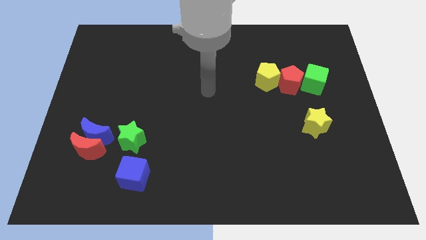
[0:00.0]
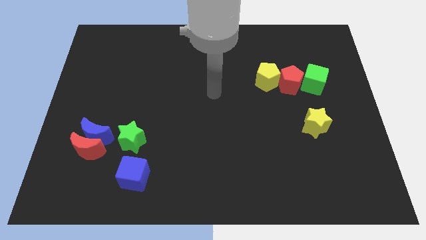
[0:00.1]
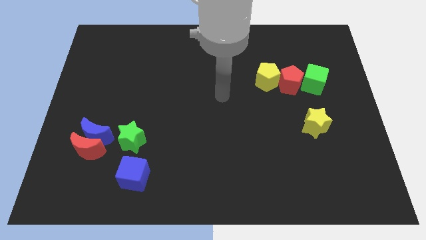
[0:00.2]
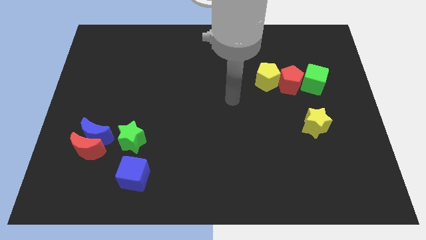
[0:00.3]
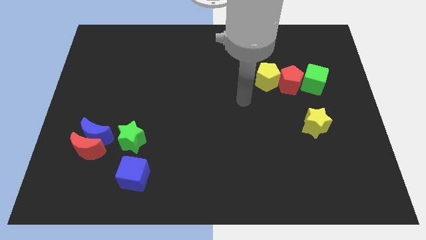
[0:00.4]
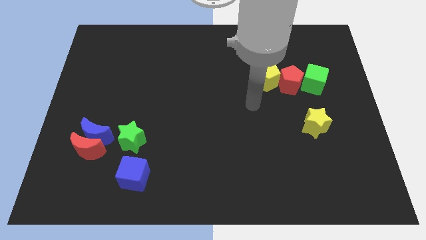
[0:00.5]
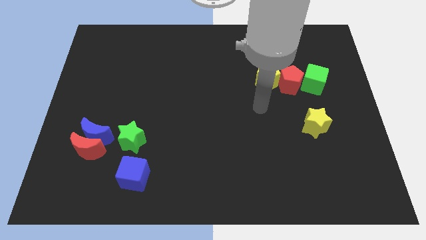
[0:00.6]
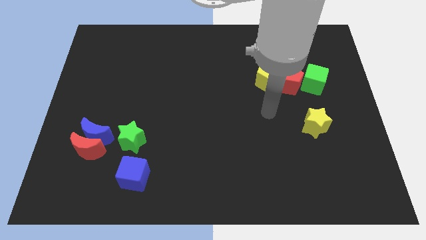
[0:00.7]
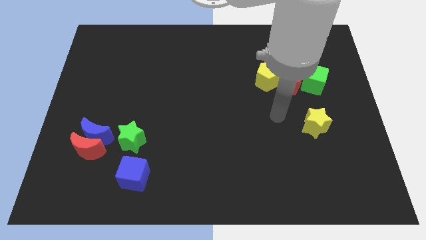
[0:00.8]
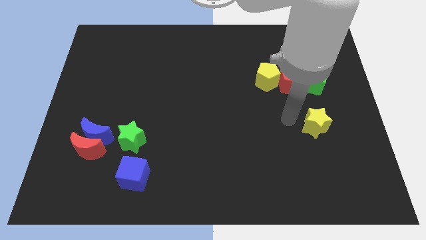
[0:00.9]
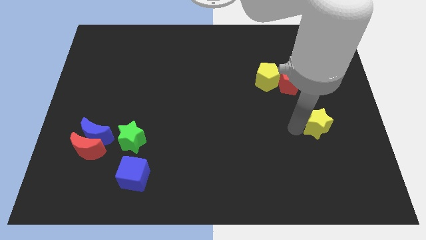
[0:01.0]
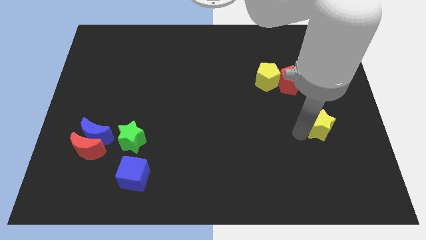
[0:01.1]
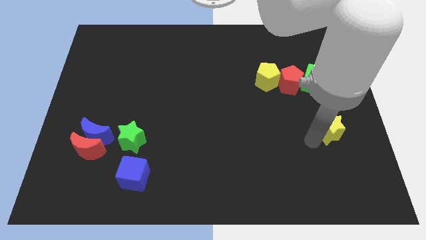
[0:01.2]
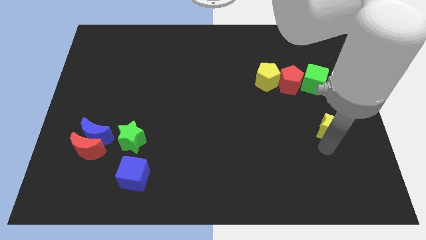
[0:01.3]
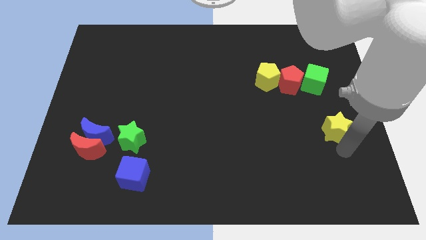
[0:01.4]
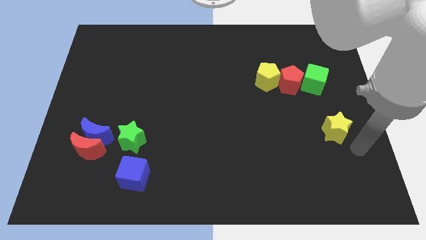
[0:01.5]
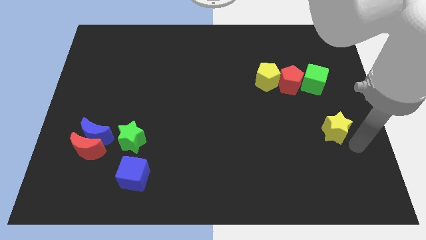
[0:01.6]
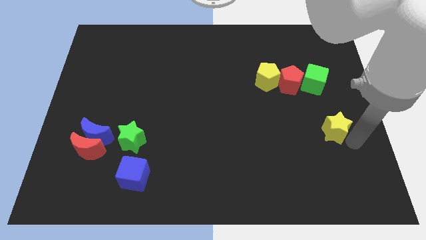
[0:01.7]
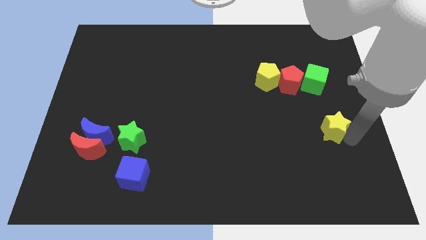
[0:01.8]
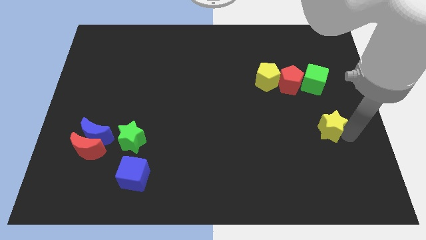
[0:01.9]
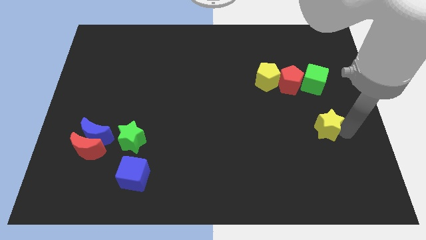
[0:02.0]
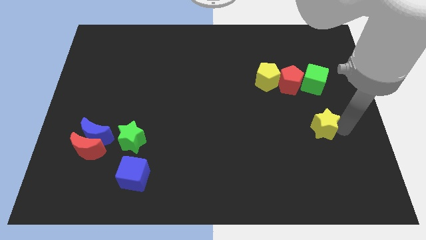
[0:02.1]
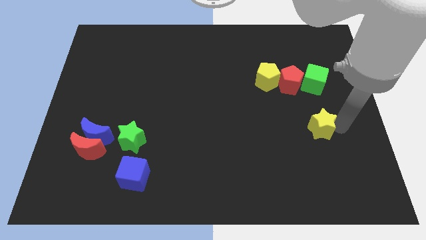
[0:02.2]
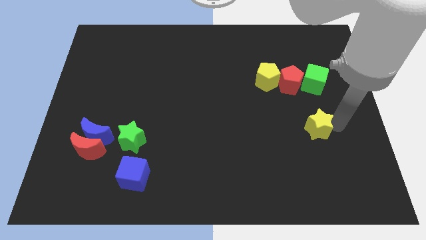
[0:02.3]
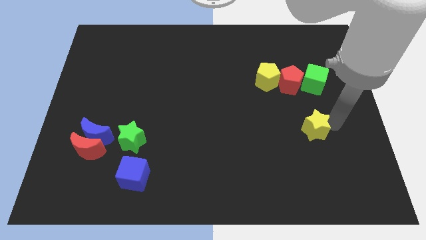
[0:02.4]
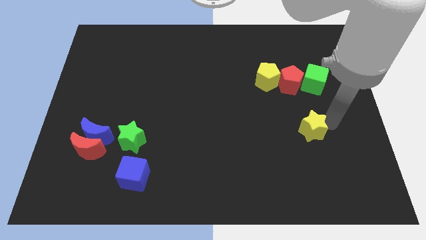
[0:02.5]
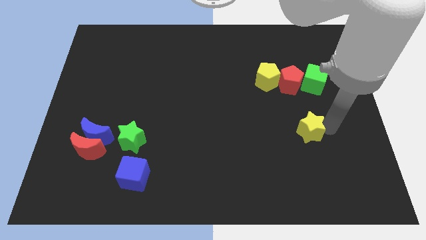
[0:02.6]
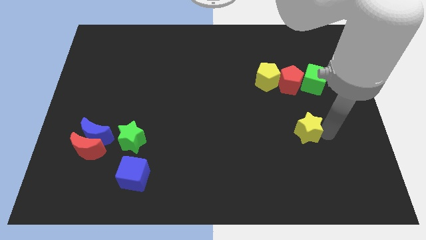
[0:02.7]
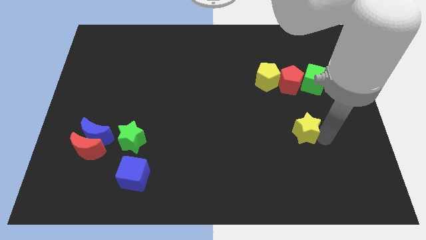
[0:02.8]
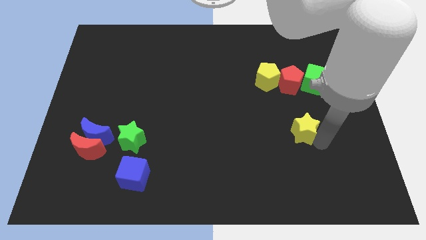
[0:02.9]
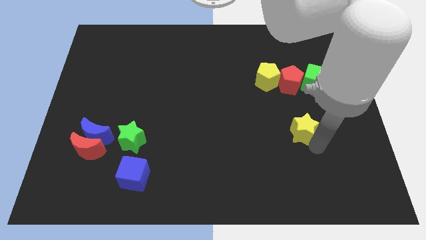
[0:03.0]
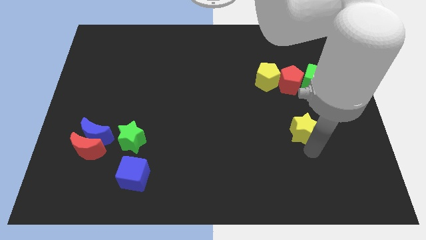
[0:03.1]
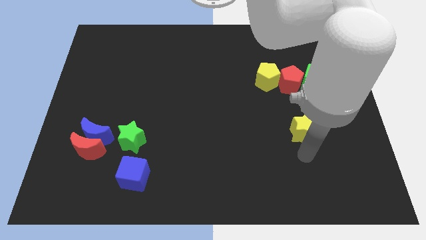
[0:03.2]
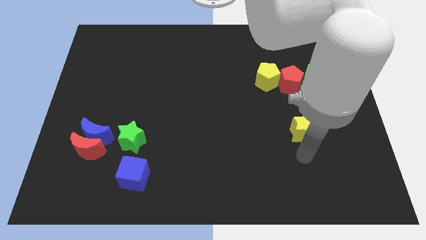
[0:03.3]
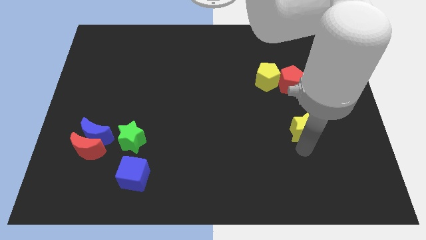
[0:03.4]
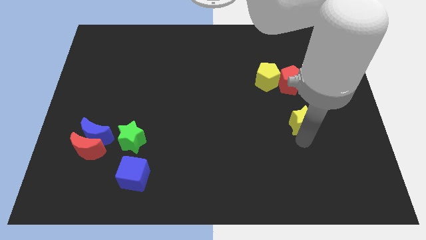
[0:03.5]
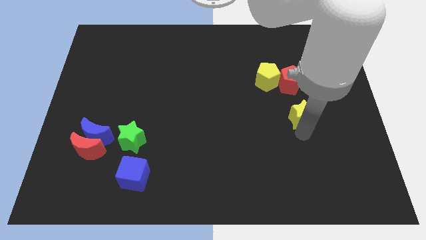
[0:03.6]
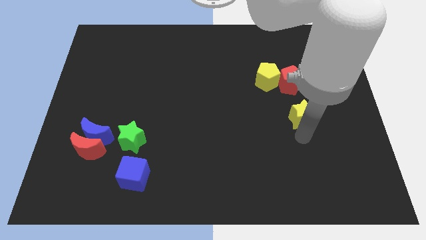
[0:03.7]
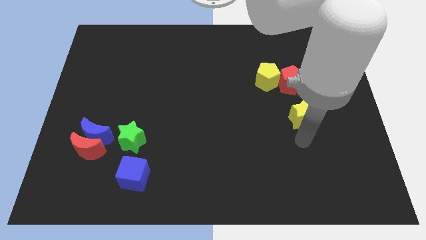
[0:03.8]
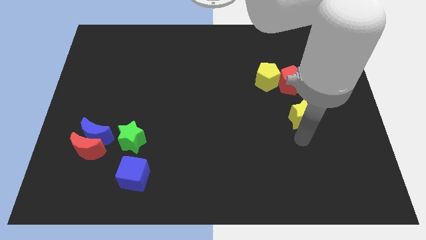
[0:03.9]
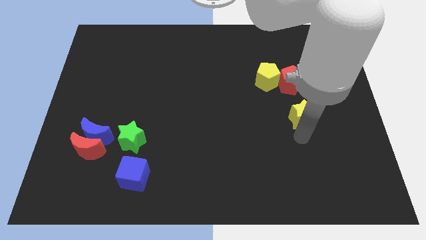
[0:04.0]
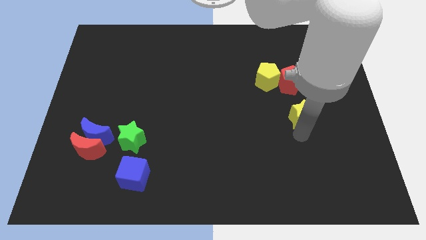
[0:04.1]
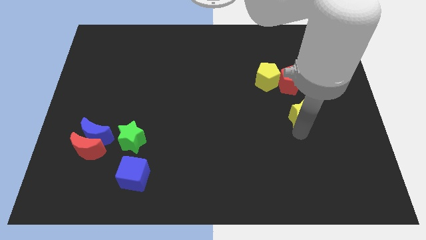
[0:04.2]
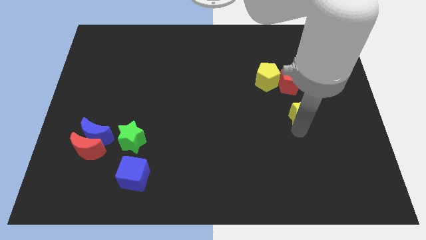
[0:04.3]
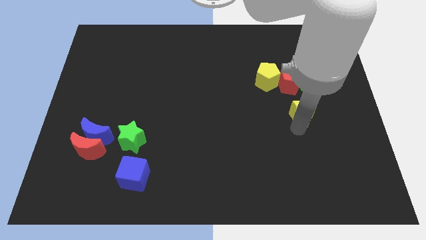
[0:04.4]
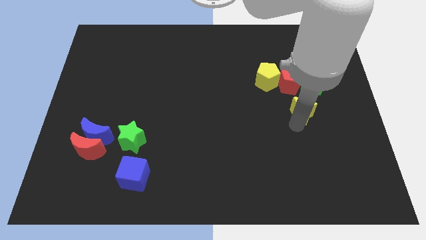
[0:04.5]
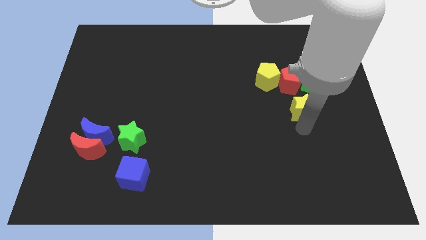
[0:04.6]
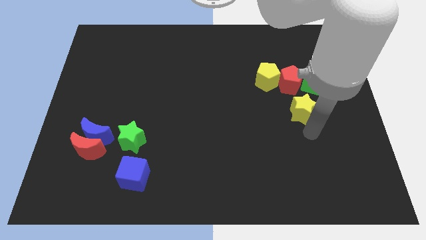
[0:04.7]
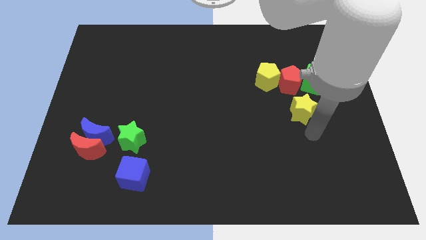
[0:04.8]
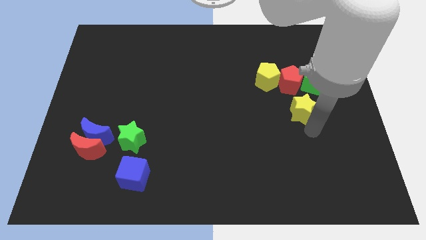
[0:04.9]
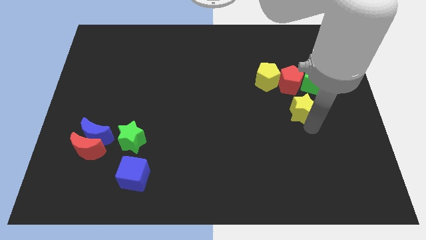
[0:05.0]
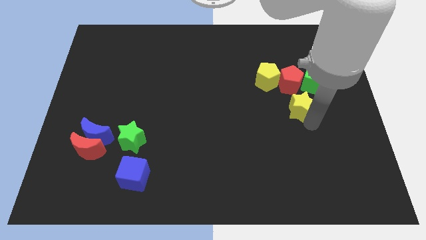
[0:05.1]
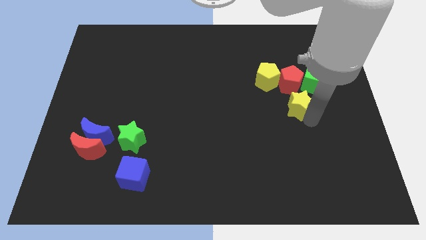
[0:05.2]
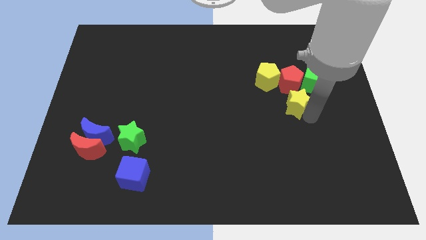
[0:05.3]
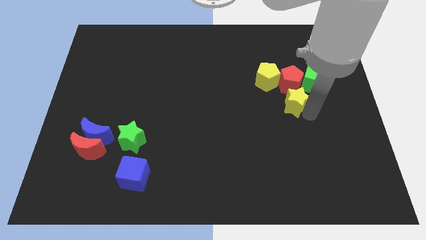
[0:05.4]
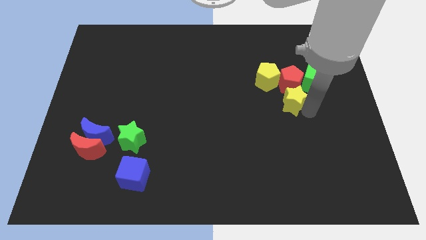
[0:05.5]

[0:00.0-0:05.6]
push the yellow star to the red pentagon

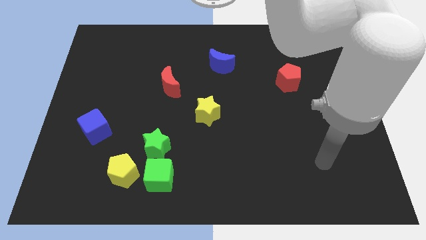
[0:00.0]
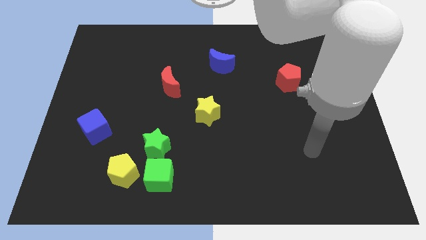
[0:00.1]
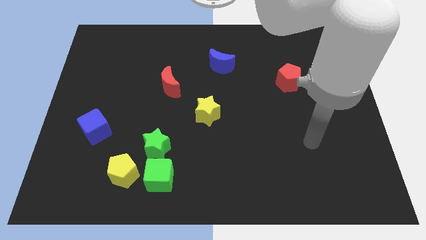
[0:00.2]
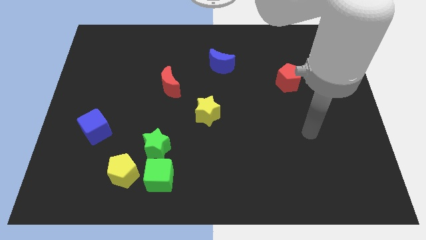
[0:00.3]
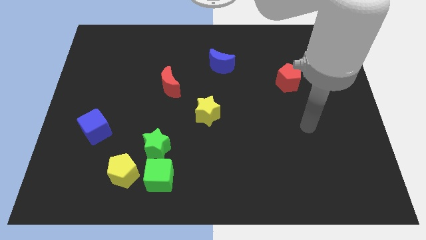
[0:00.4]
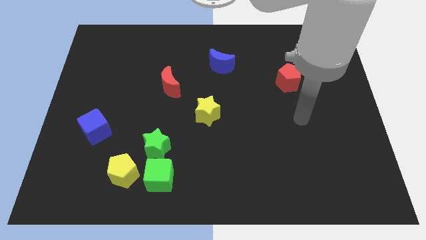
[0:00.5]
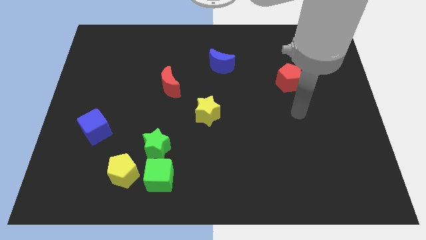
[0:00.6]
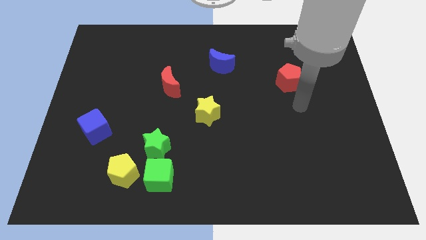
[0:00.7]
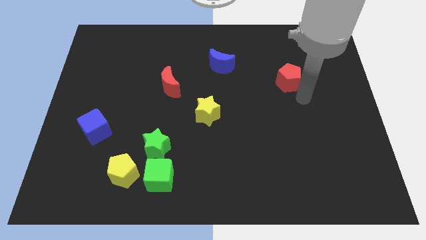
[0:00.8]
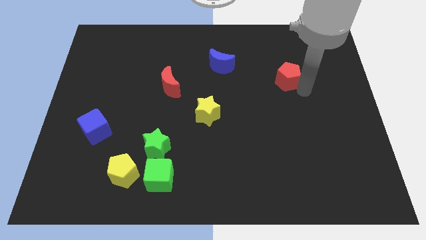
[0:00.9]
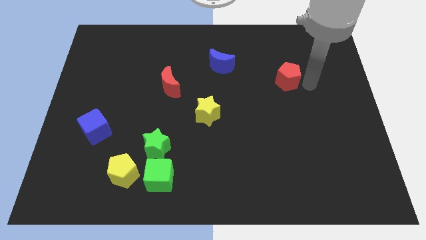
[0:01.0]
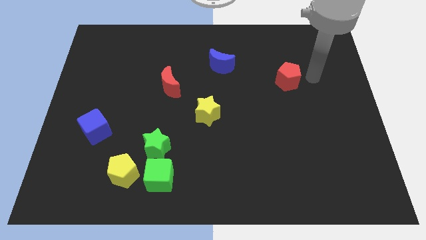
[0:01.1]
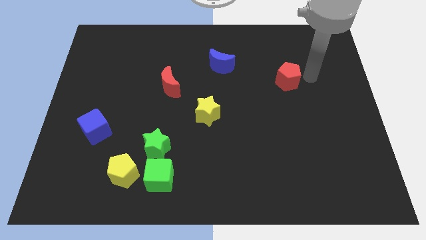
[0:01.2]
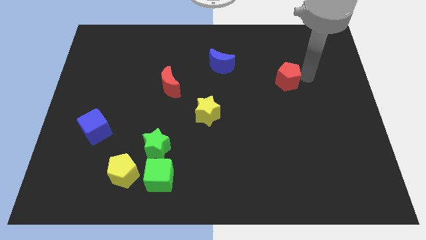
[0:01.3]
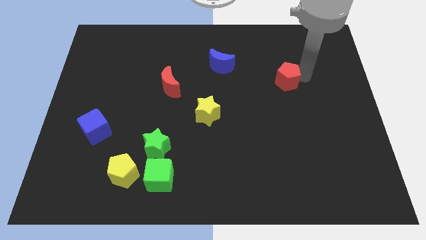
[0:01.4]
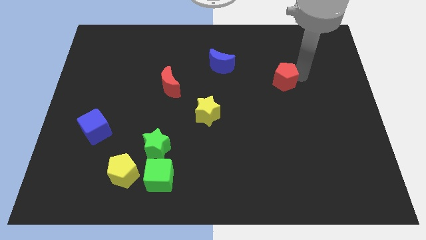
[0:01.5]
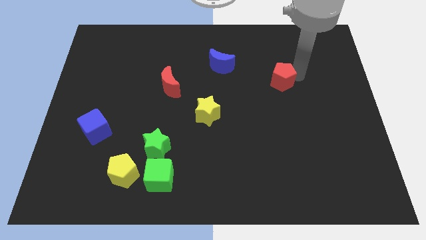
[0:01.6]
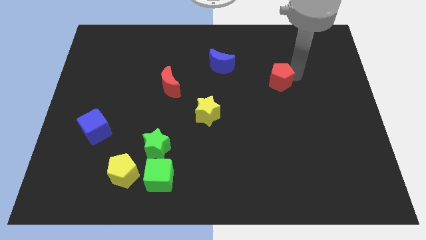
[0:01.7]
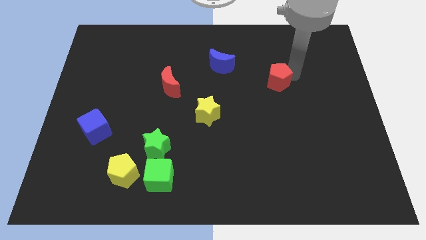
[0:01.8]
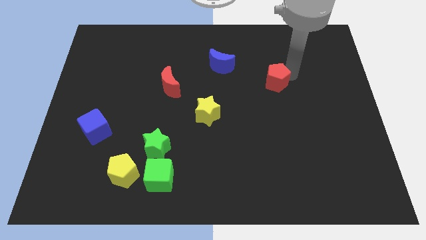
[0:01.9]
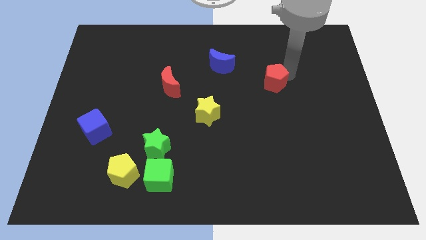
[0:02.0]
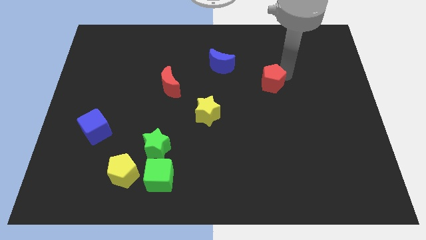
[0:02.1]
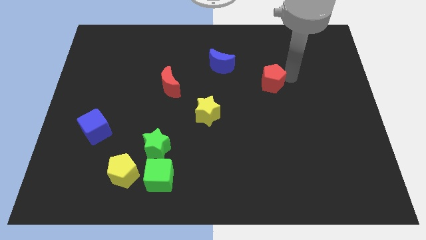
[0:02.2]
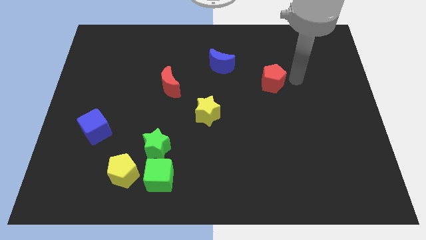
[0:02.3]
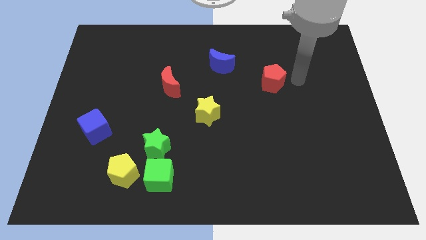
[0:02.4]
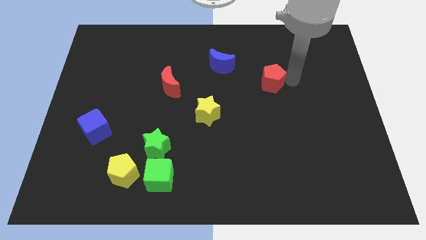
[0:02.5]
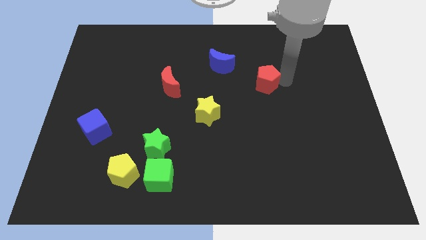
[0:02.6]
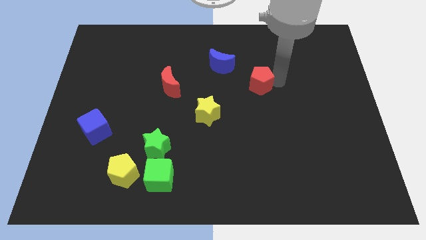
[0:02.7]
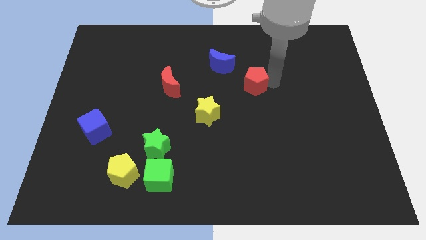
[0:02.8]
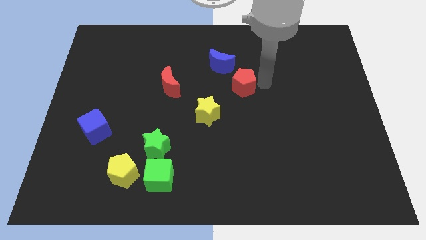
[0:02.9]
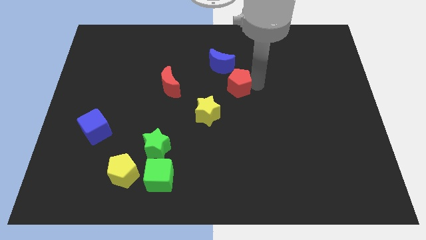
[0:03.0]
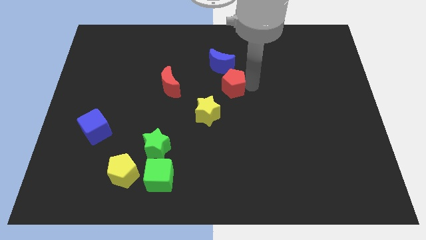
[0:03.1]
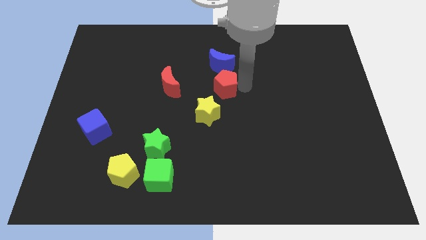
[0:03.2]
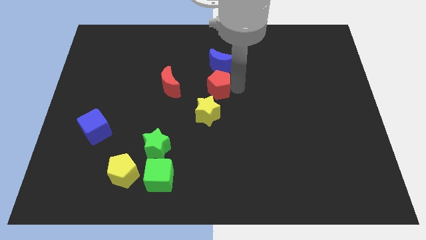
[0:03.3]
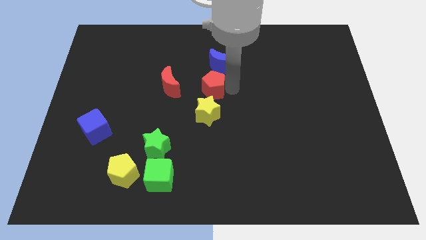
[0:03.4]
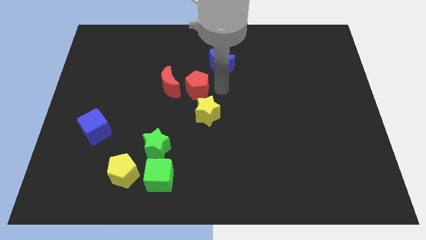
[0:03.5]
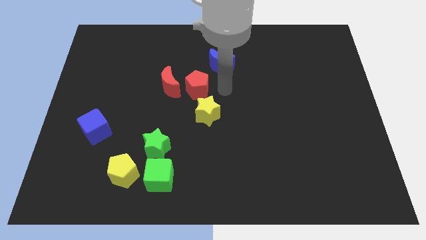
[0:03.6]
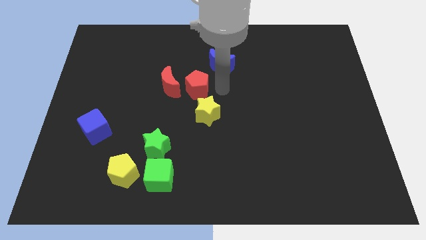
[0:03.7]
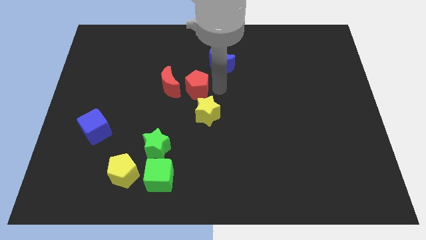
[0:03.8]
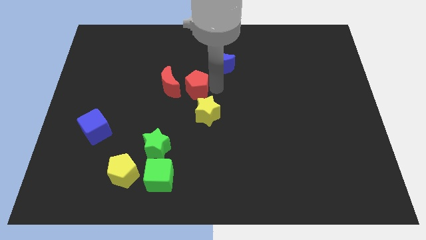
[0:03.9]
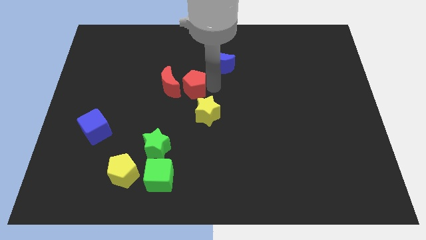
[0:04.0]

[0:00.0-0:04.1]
push the red pentagon towards the red moon
